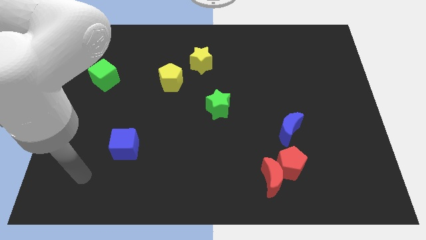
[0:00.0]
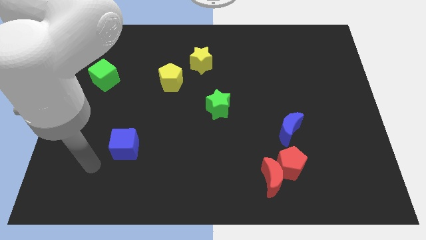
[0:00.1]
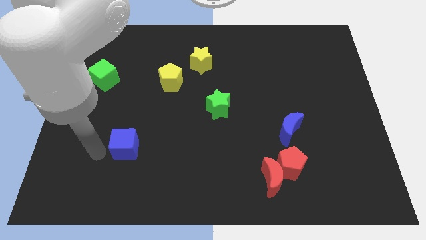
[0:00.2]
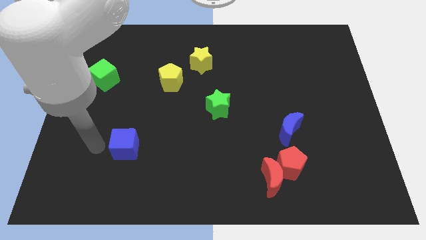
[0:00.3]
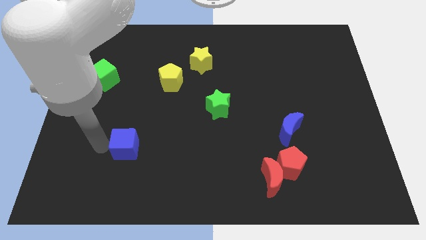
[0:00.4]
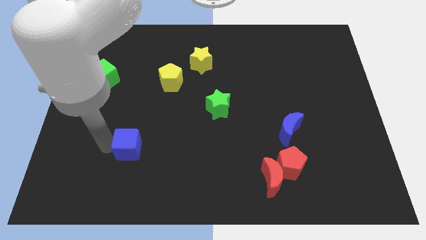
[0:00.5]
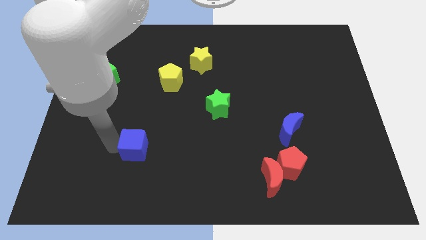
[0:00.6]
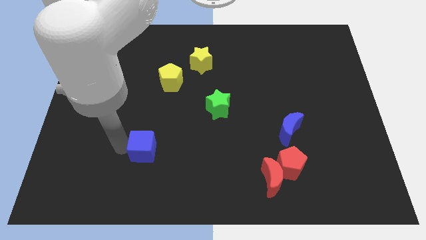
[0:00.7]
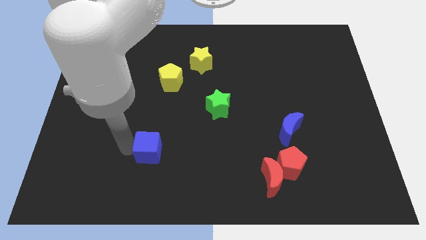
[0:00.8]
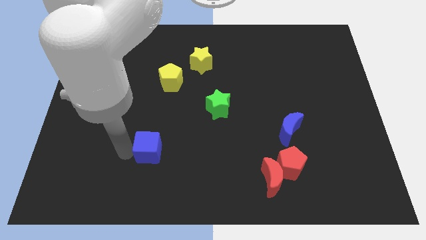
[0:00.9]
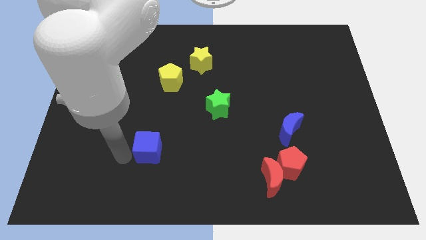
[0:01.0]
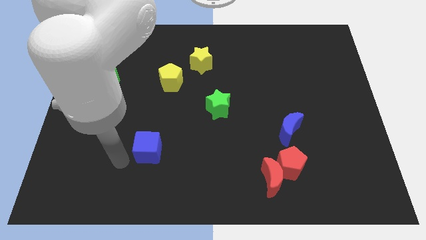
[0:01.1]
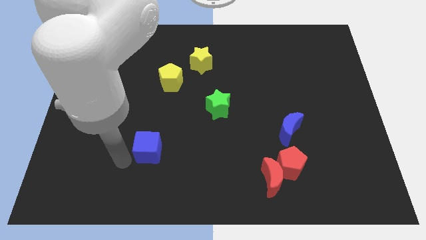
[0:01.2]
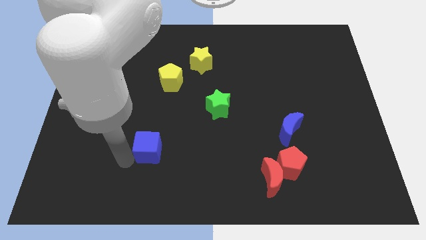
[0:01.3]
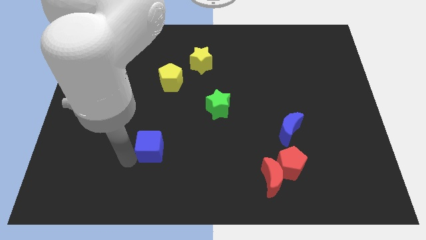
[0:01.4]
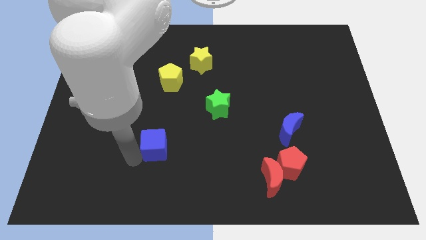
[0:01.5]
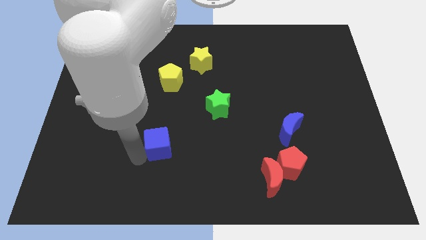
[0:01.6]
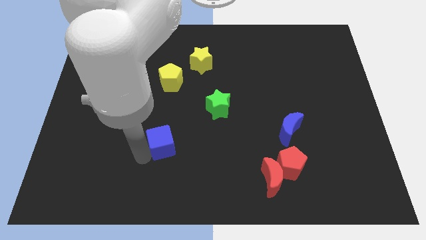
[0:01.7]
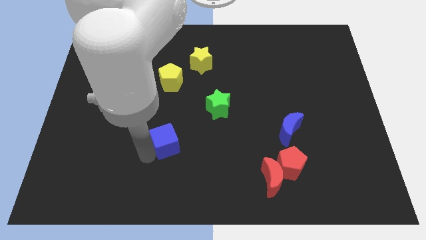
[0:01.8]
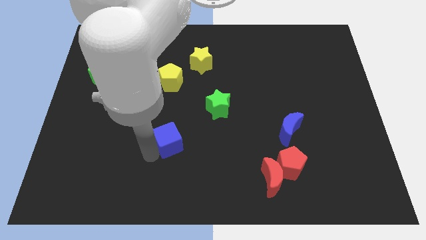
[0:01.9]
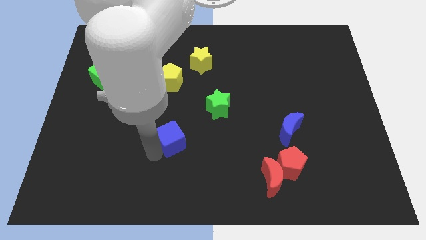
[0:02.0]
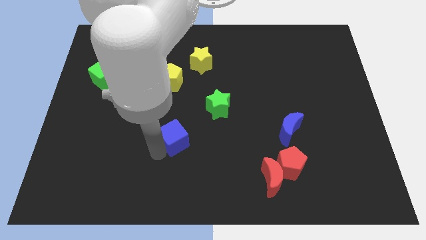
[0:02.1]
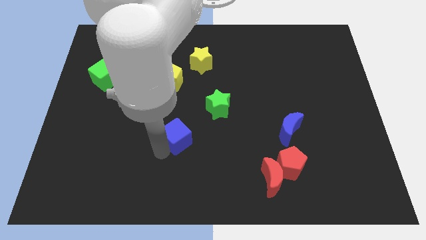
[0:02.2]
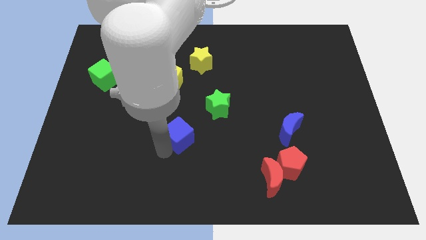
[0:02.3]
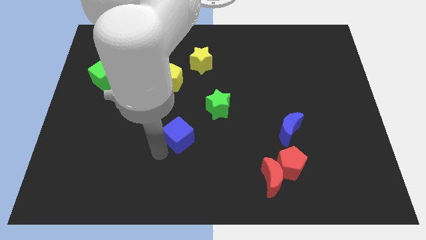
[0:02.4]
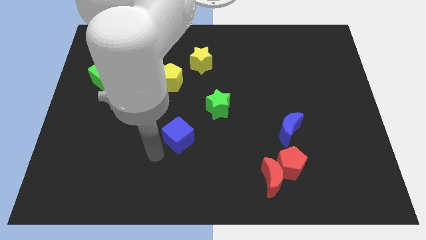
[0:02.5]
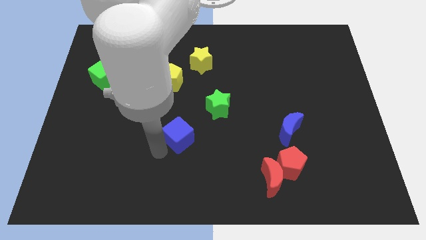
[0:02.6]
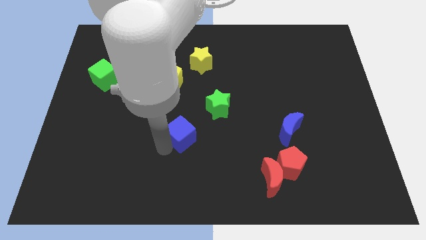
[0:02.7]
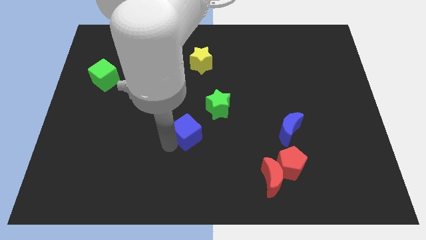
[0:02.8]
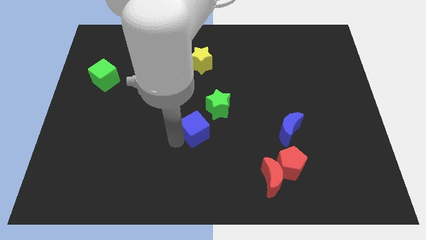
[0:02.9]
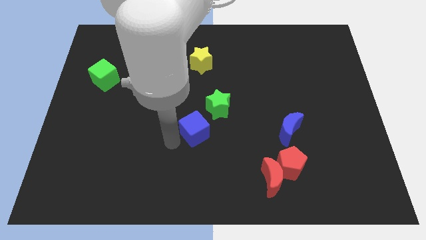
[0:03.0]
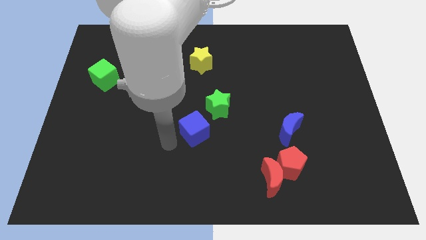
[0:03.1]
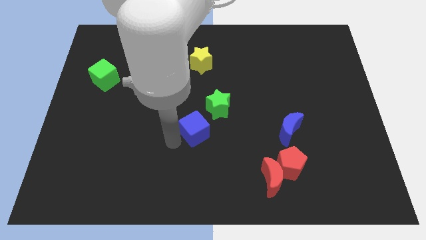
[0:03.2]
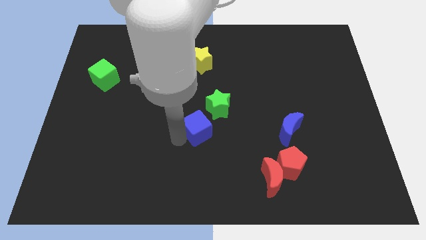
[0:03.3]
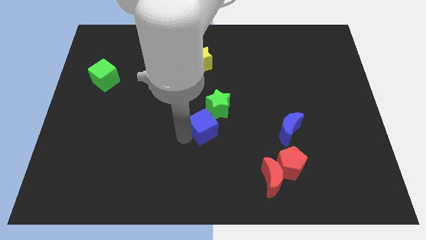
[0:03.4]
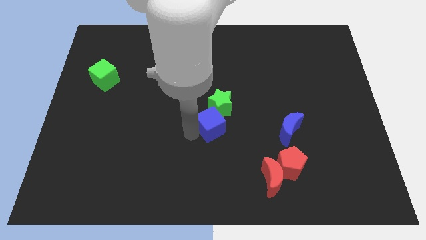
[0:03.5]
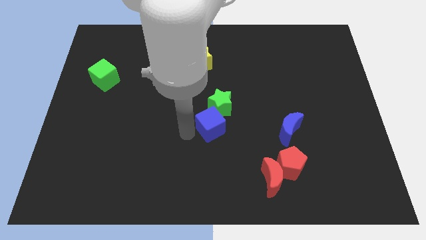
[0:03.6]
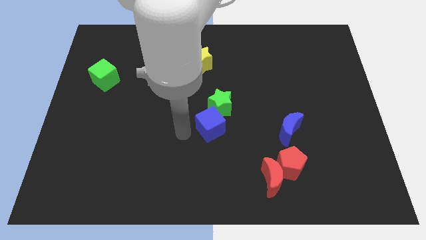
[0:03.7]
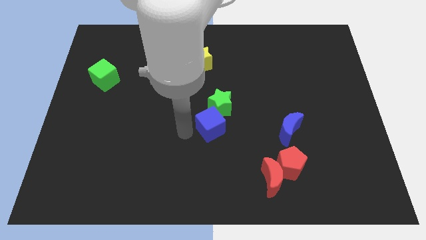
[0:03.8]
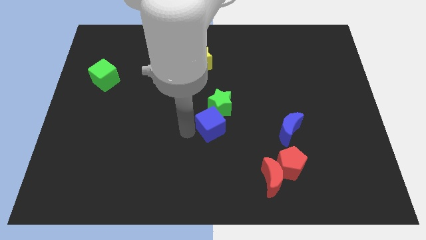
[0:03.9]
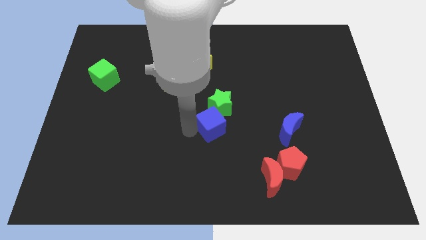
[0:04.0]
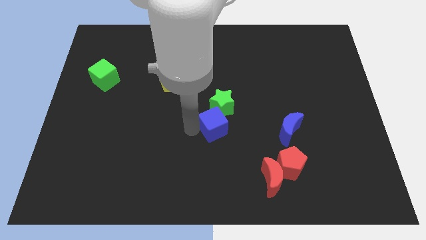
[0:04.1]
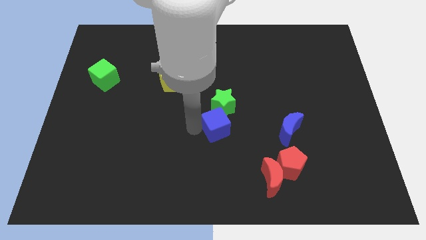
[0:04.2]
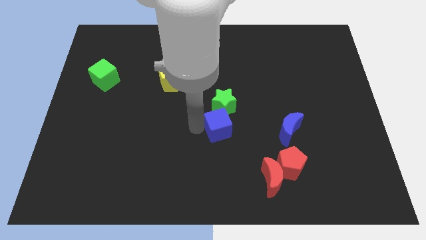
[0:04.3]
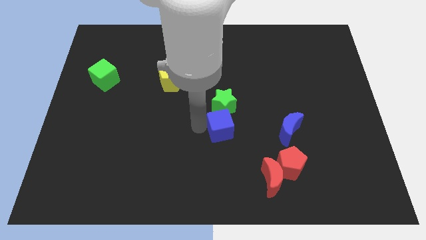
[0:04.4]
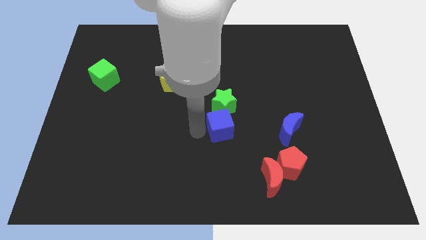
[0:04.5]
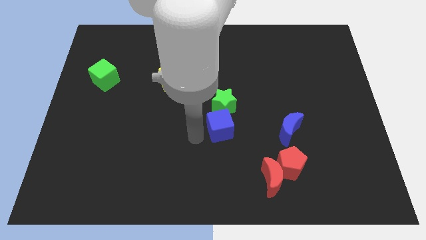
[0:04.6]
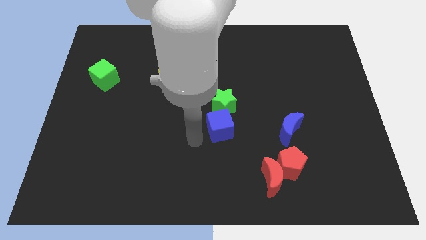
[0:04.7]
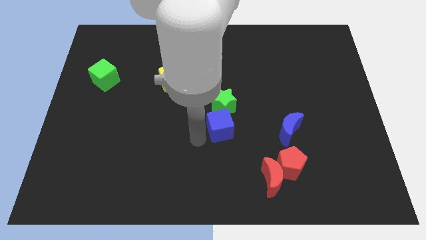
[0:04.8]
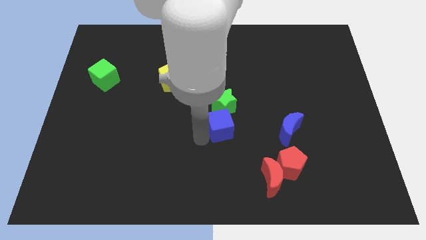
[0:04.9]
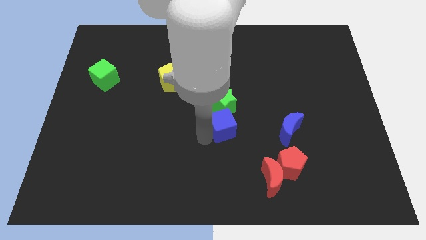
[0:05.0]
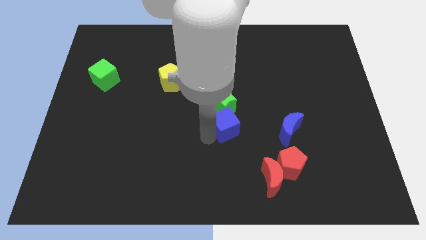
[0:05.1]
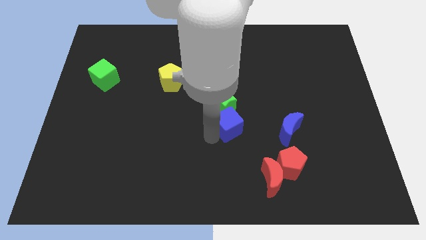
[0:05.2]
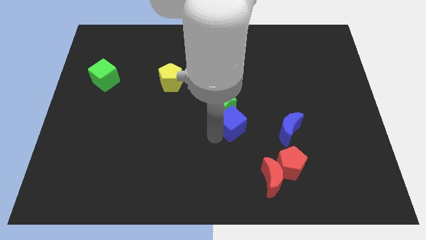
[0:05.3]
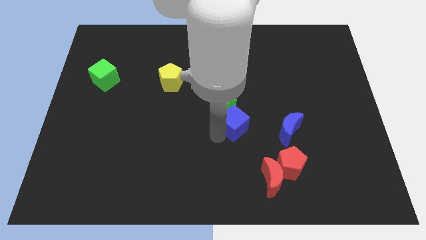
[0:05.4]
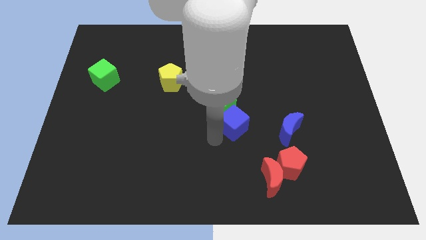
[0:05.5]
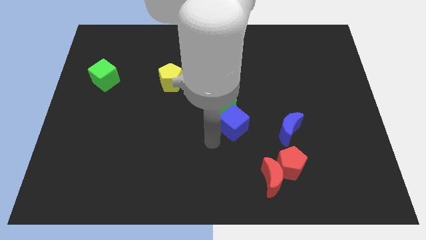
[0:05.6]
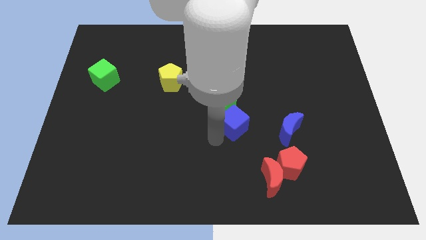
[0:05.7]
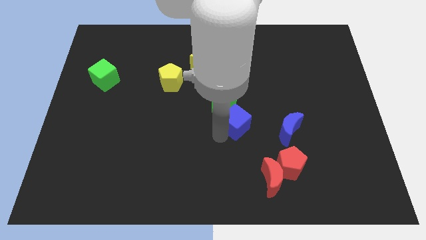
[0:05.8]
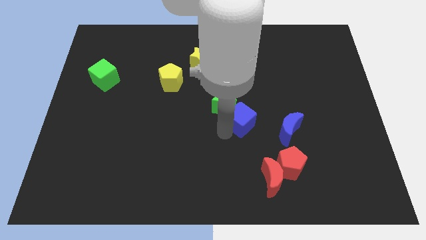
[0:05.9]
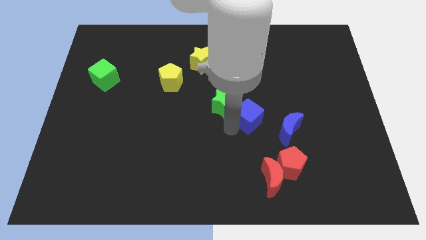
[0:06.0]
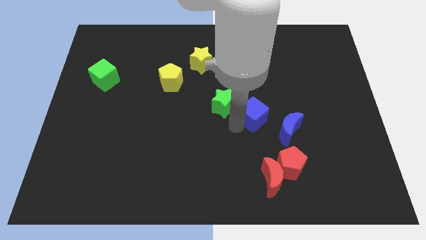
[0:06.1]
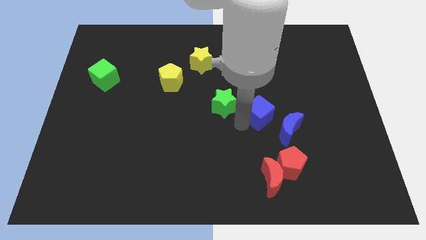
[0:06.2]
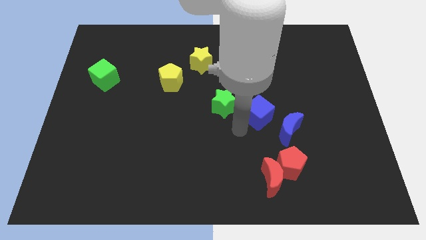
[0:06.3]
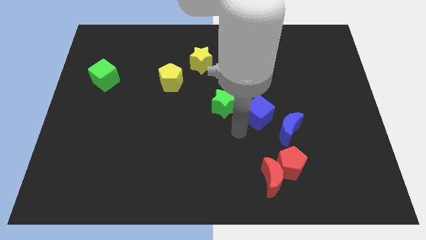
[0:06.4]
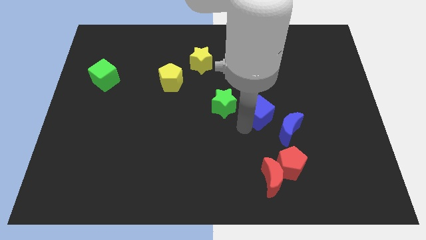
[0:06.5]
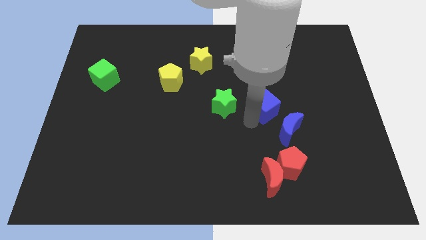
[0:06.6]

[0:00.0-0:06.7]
push the blue cube to the top side of the blue moon

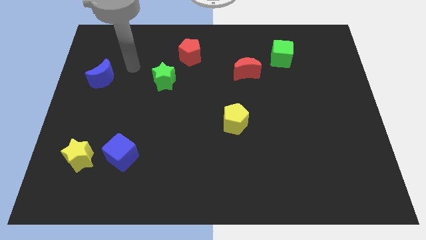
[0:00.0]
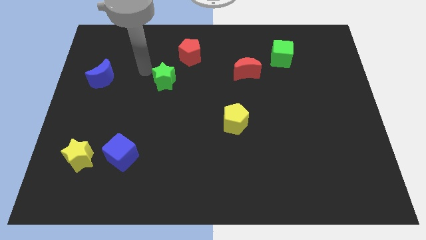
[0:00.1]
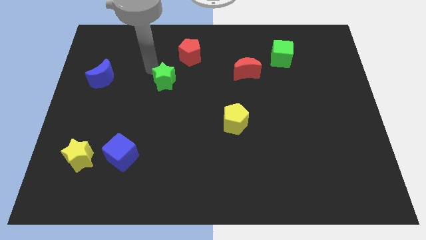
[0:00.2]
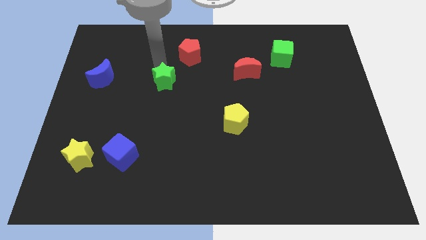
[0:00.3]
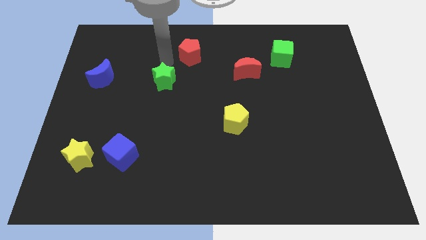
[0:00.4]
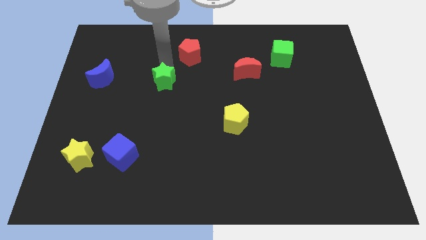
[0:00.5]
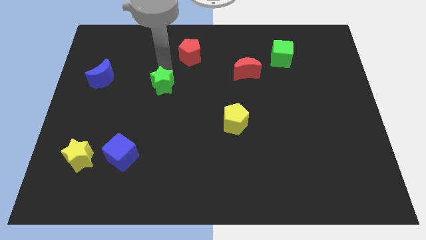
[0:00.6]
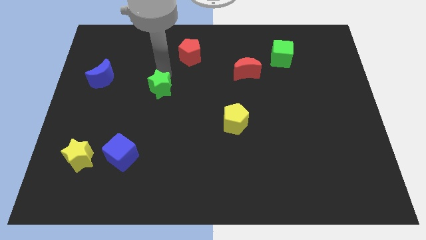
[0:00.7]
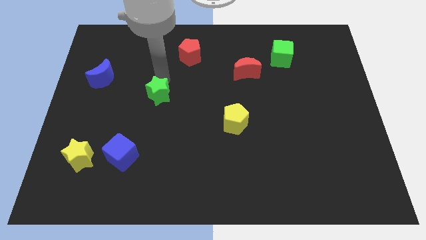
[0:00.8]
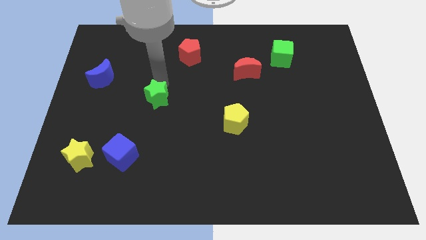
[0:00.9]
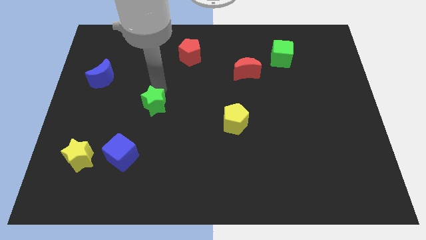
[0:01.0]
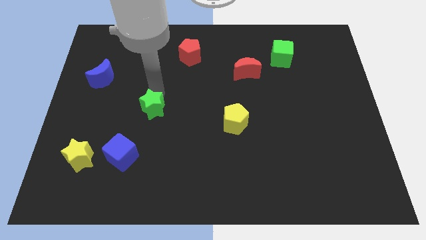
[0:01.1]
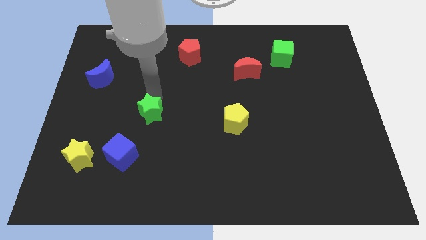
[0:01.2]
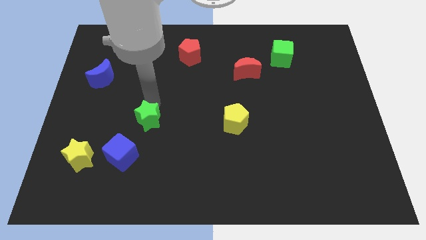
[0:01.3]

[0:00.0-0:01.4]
put the green star to the top right of the blue cube
